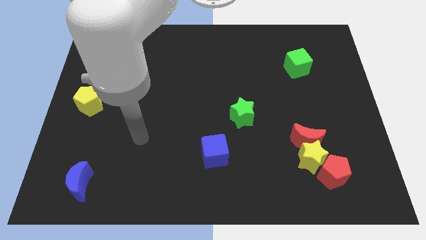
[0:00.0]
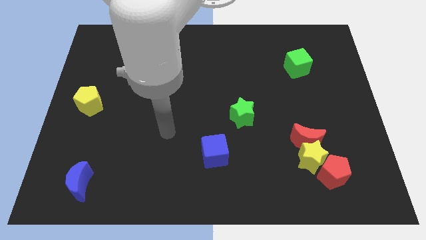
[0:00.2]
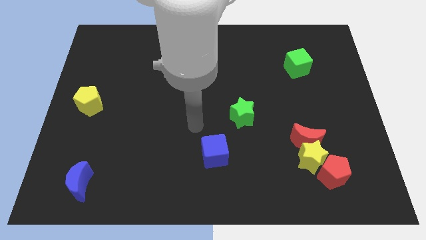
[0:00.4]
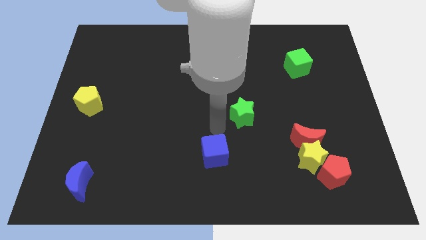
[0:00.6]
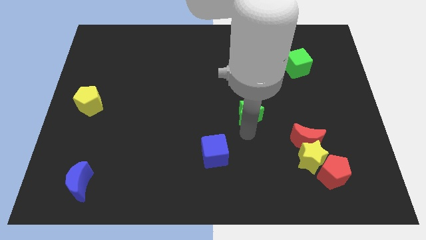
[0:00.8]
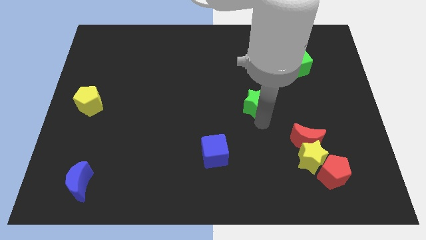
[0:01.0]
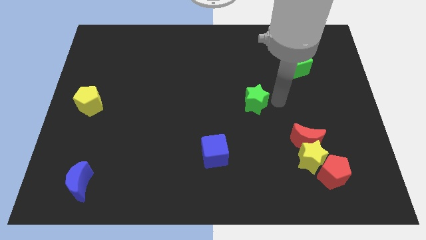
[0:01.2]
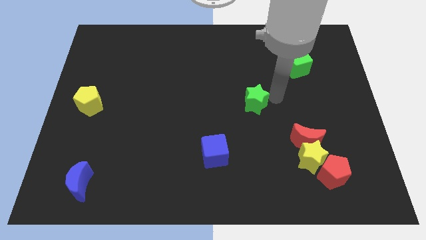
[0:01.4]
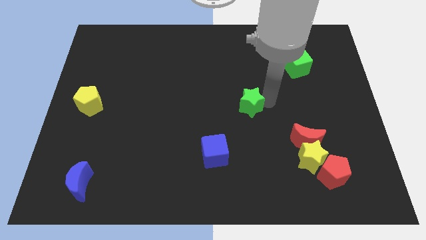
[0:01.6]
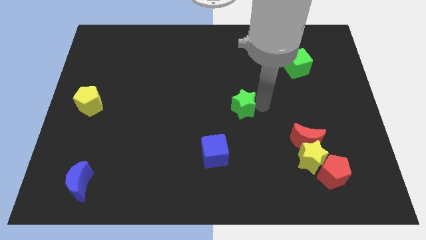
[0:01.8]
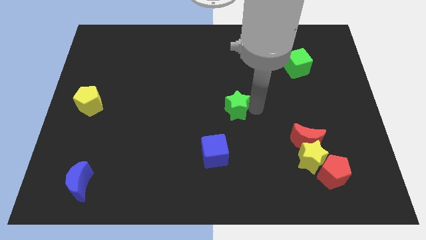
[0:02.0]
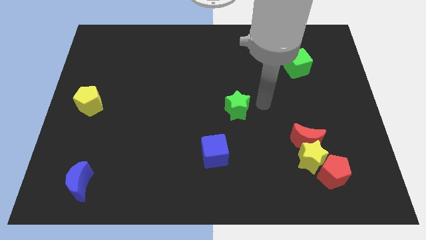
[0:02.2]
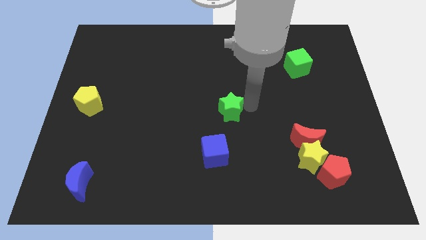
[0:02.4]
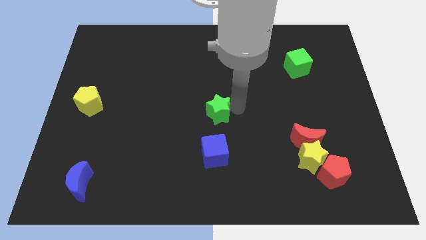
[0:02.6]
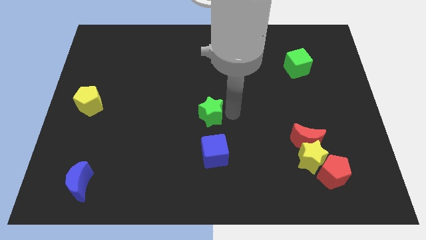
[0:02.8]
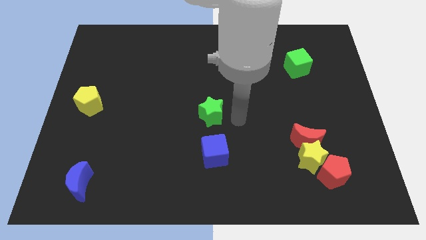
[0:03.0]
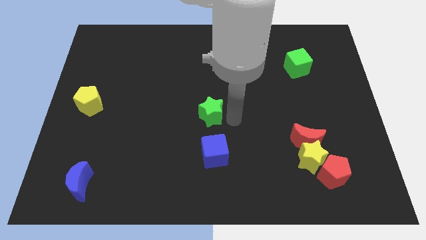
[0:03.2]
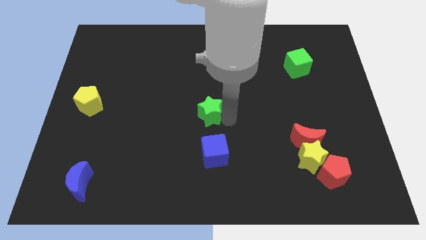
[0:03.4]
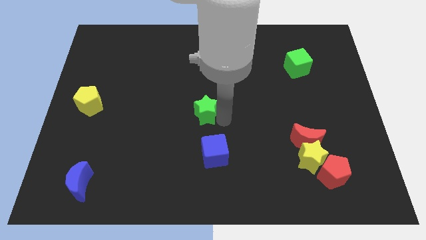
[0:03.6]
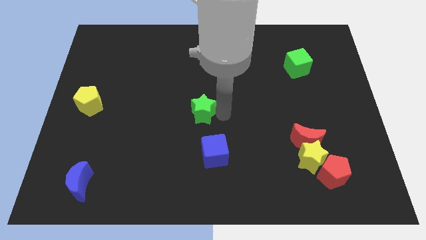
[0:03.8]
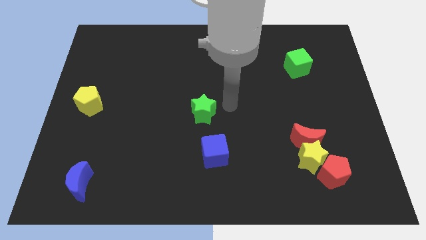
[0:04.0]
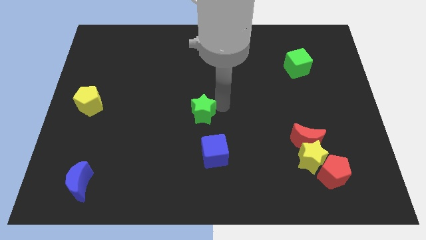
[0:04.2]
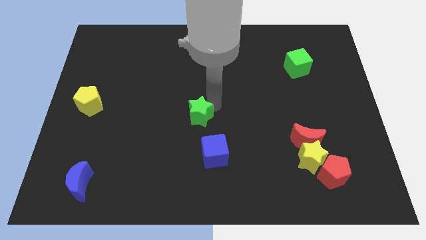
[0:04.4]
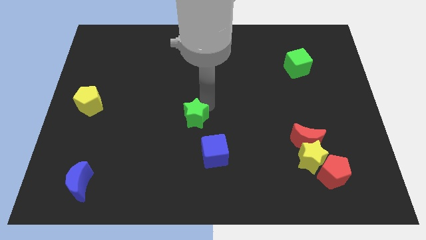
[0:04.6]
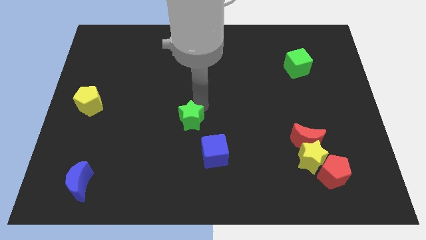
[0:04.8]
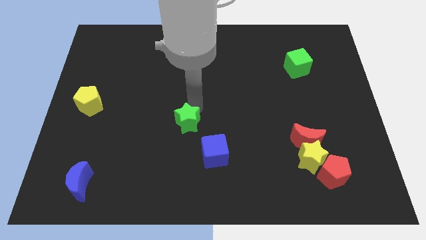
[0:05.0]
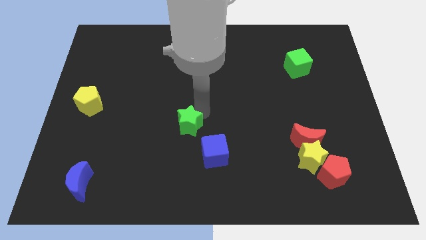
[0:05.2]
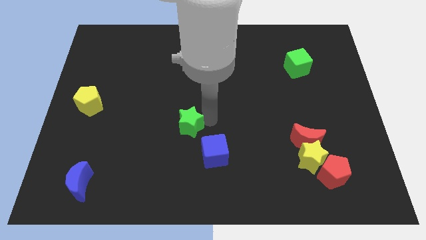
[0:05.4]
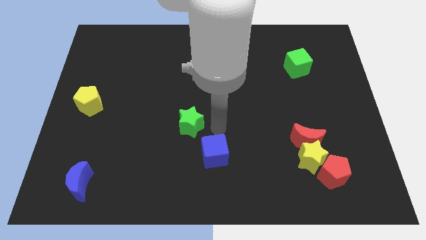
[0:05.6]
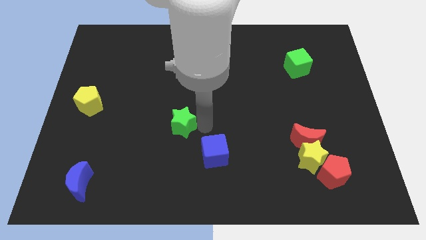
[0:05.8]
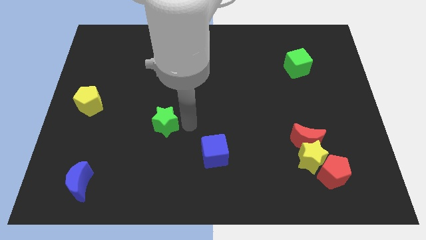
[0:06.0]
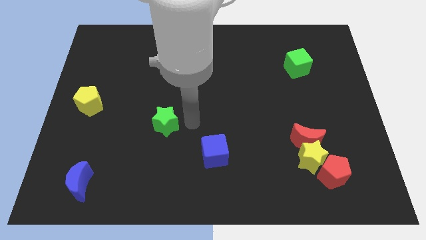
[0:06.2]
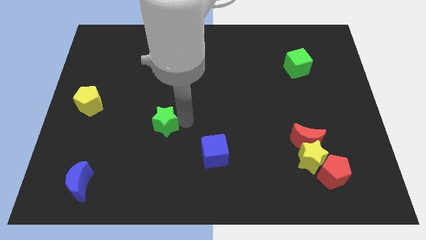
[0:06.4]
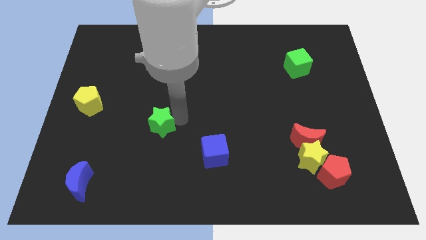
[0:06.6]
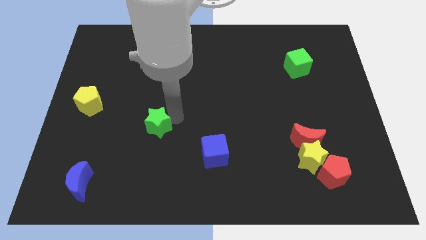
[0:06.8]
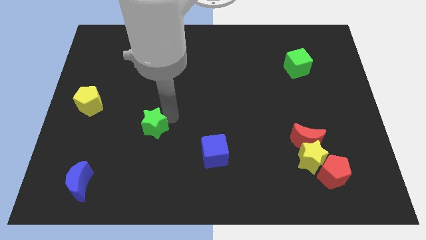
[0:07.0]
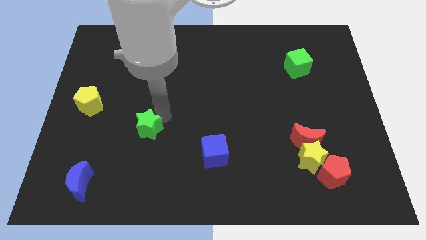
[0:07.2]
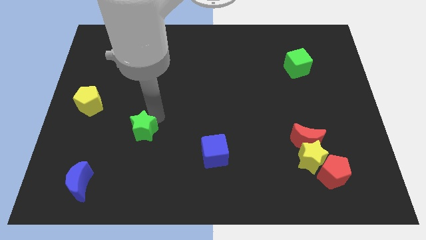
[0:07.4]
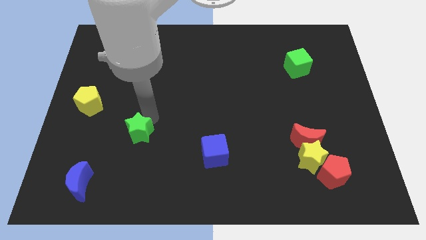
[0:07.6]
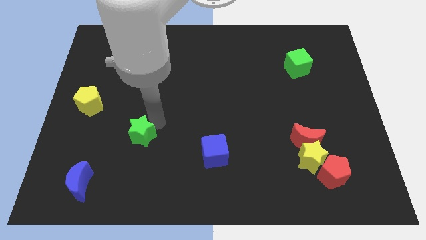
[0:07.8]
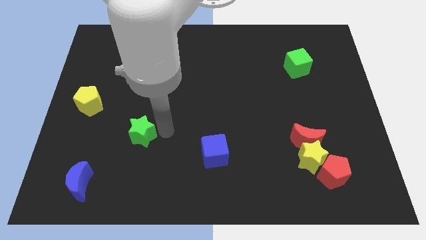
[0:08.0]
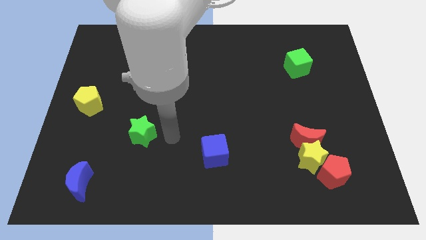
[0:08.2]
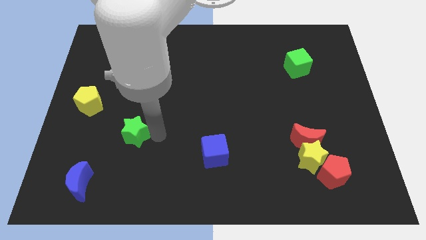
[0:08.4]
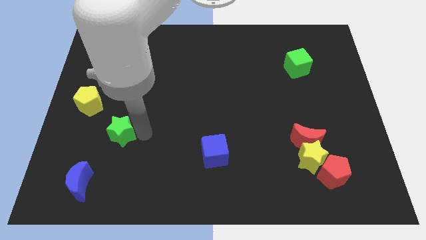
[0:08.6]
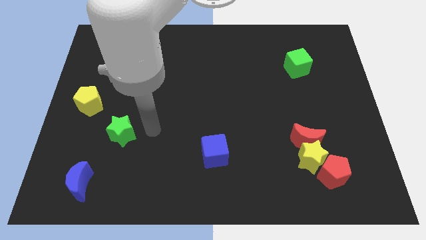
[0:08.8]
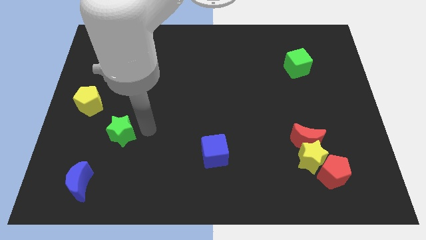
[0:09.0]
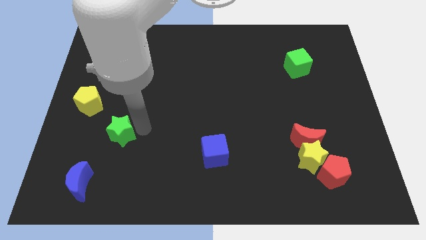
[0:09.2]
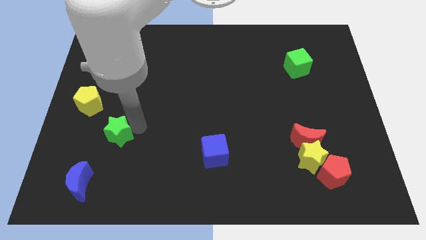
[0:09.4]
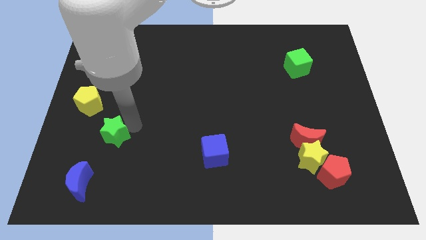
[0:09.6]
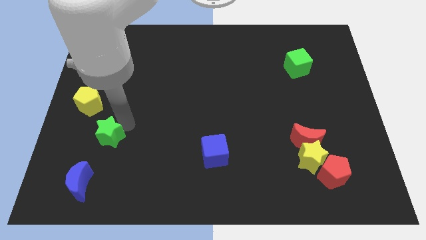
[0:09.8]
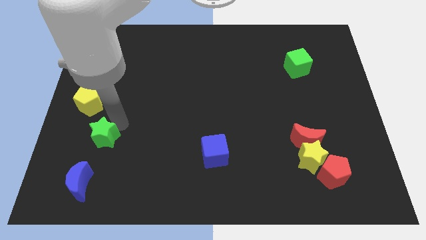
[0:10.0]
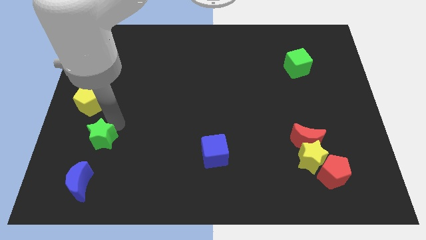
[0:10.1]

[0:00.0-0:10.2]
move the green star to the bottom of the yellow pentagon

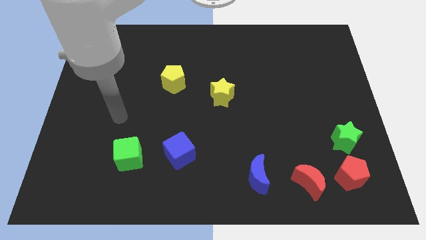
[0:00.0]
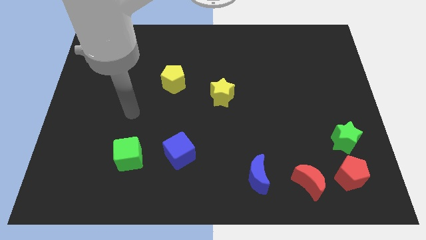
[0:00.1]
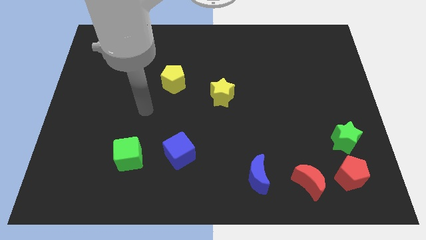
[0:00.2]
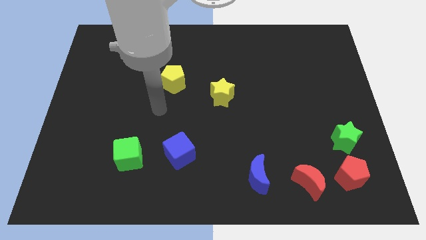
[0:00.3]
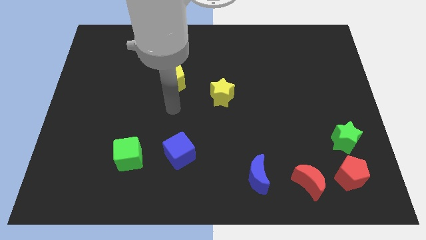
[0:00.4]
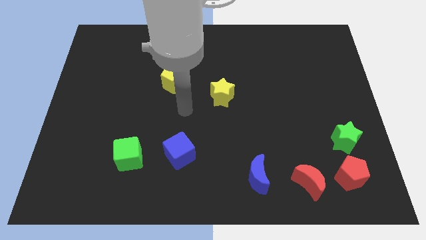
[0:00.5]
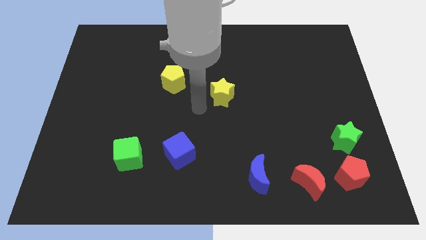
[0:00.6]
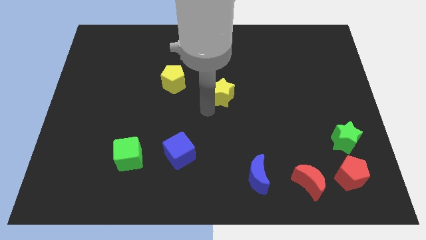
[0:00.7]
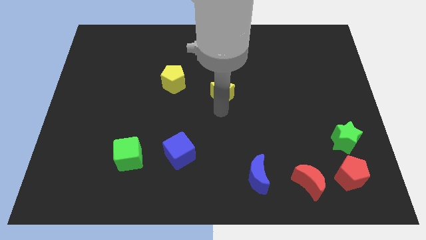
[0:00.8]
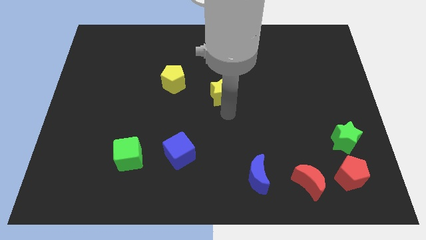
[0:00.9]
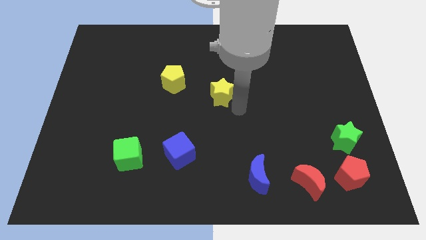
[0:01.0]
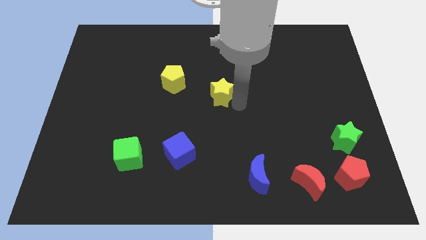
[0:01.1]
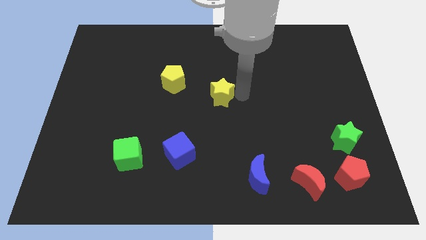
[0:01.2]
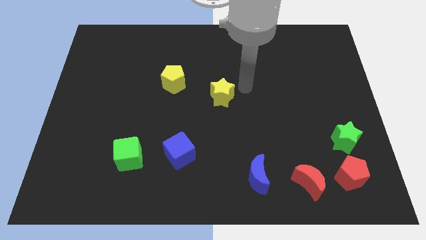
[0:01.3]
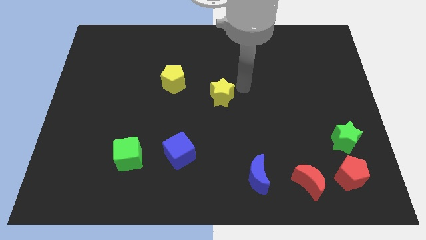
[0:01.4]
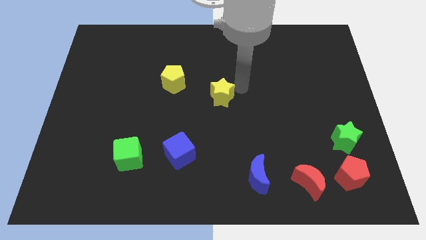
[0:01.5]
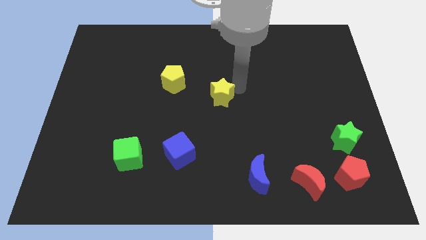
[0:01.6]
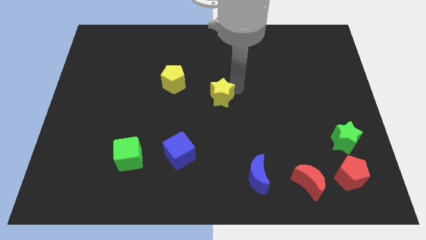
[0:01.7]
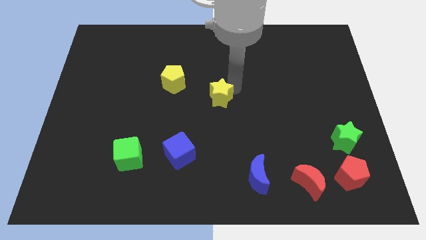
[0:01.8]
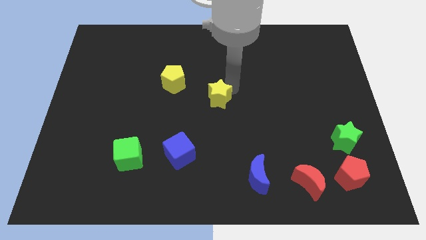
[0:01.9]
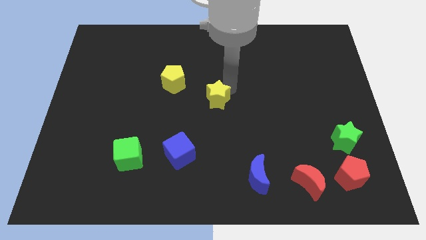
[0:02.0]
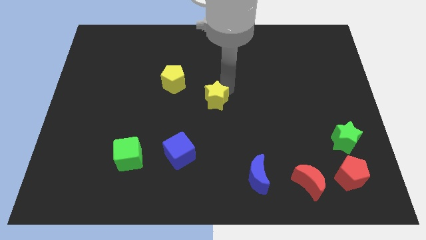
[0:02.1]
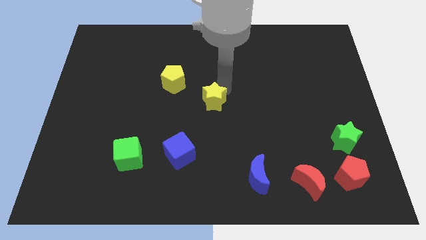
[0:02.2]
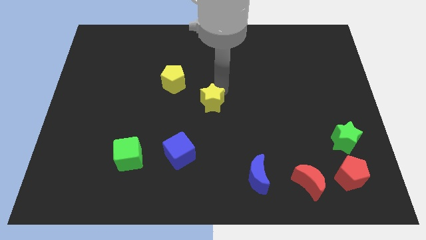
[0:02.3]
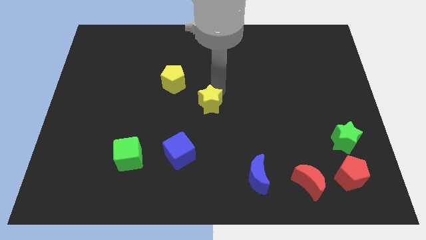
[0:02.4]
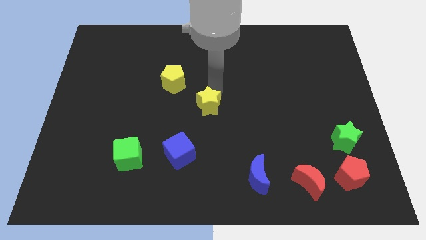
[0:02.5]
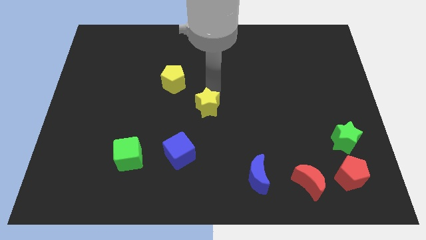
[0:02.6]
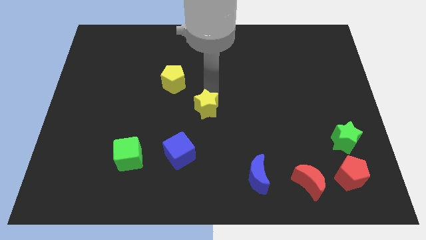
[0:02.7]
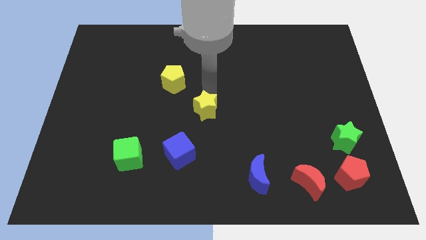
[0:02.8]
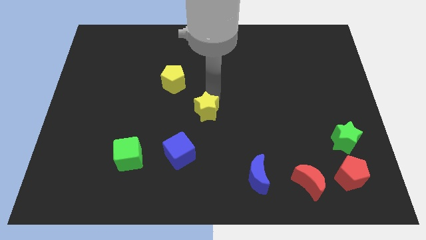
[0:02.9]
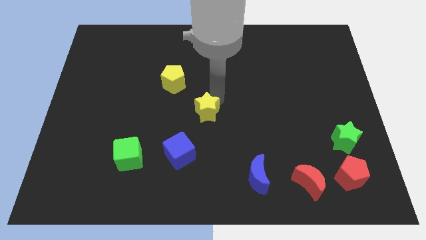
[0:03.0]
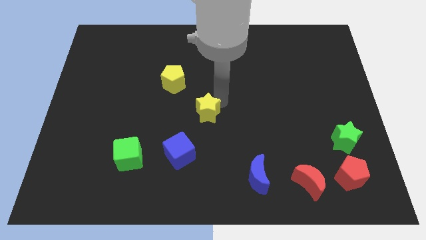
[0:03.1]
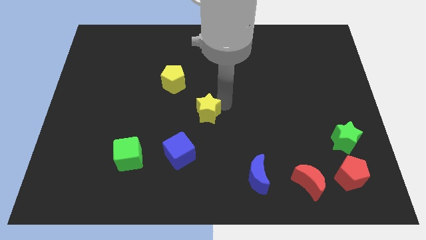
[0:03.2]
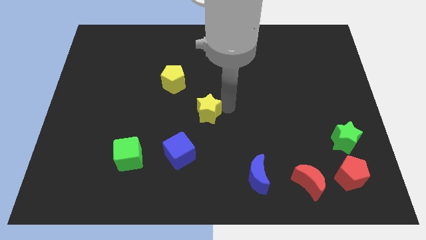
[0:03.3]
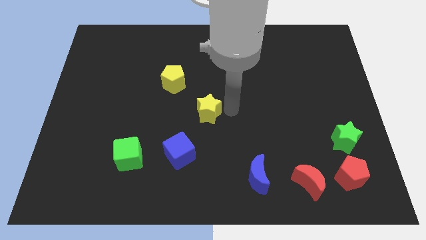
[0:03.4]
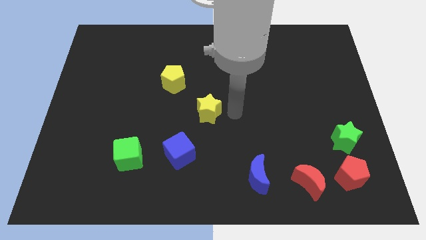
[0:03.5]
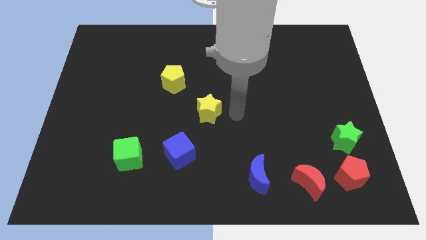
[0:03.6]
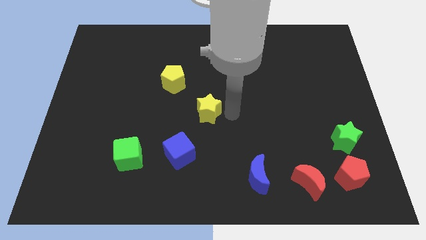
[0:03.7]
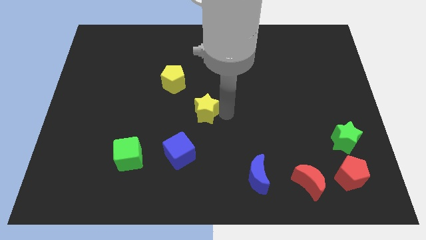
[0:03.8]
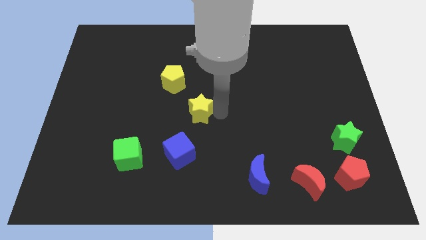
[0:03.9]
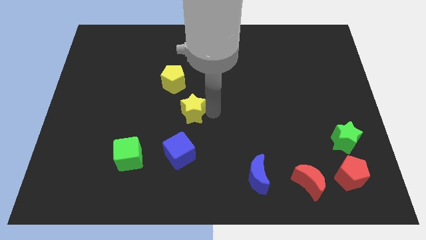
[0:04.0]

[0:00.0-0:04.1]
move the yellow star below the yellow pentagon
